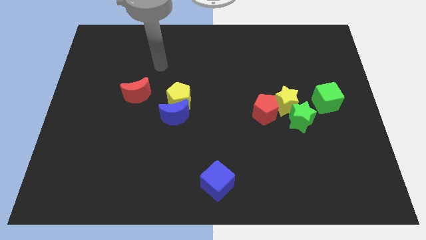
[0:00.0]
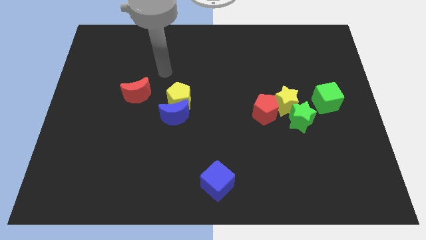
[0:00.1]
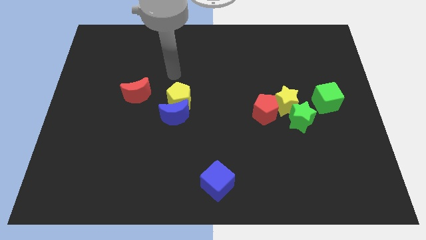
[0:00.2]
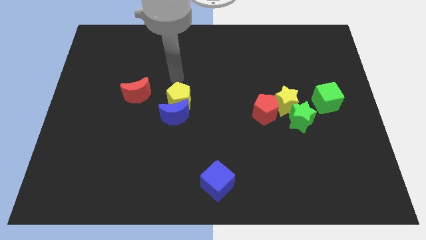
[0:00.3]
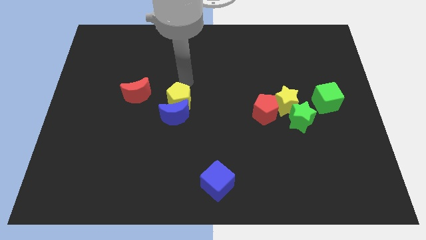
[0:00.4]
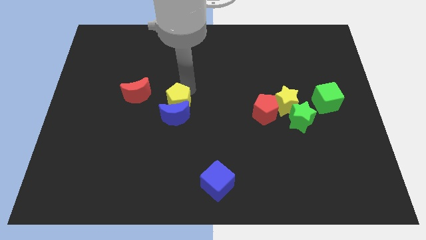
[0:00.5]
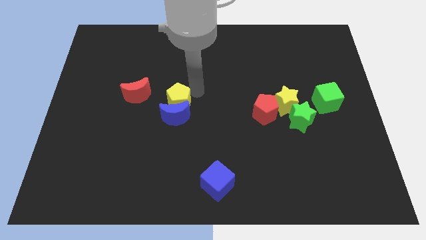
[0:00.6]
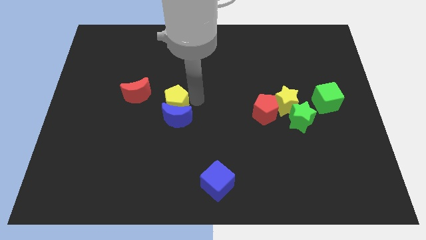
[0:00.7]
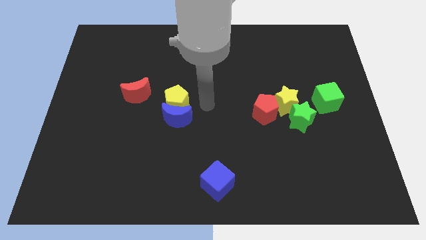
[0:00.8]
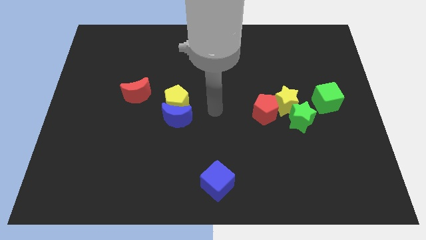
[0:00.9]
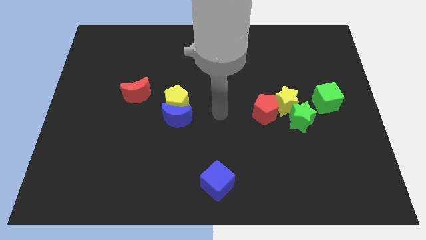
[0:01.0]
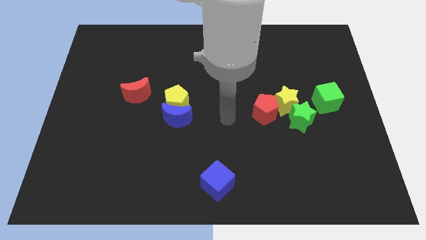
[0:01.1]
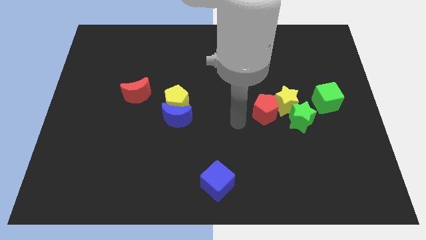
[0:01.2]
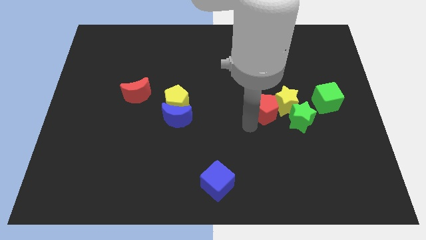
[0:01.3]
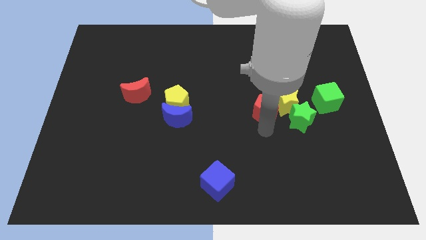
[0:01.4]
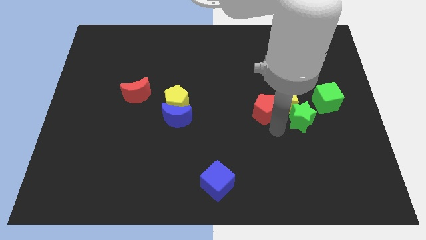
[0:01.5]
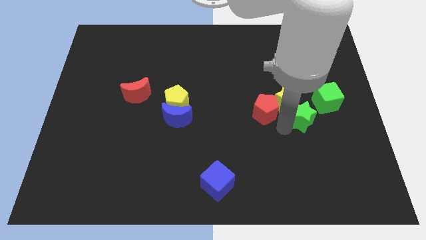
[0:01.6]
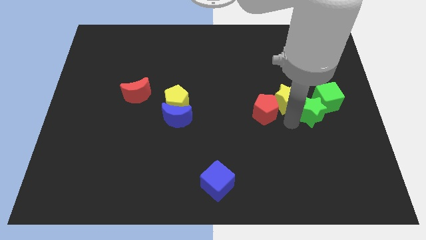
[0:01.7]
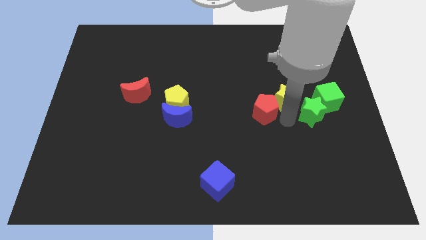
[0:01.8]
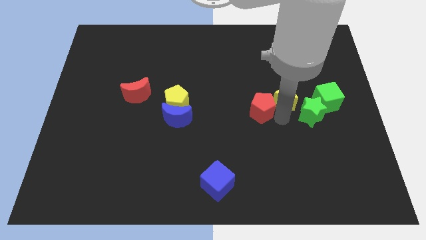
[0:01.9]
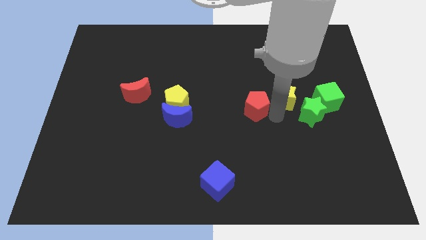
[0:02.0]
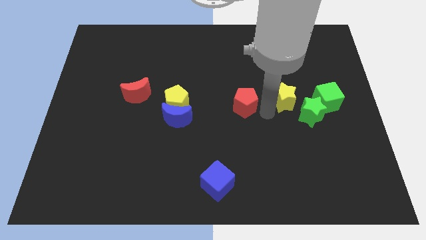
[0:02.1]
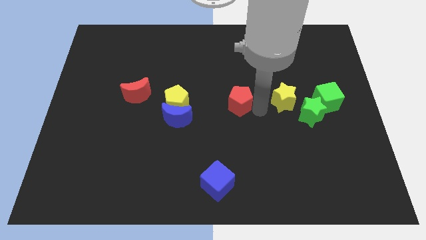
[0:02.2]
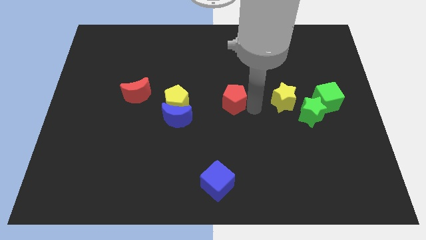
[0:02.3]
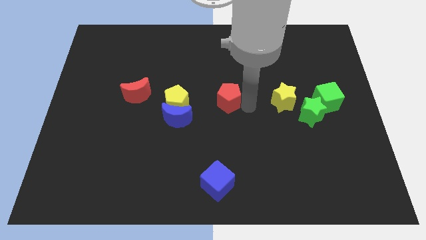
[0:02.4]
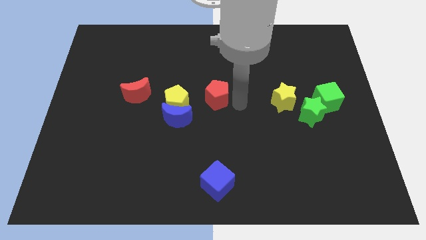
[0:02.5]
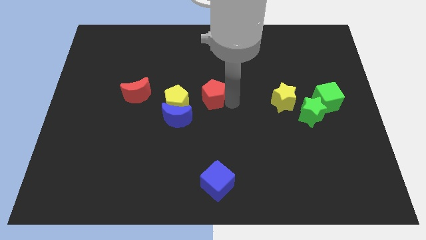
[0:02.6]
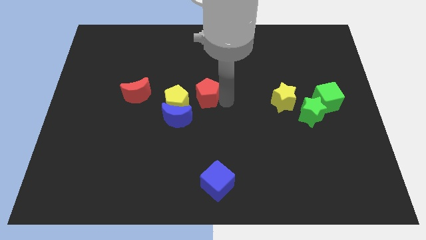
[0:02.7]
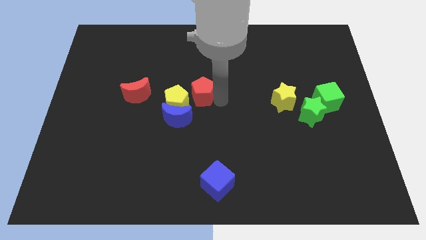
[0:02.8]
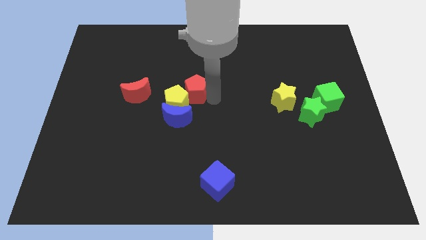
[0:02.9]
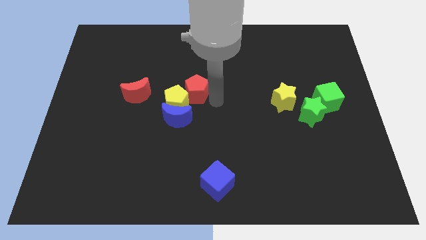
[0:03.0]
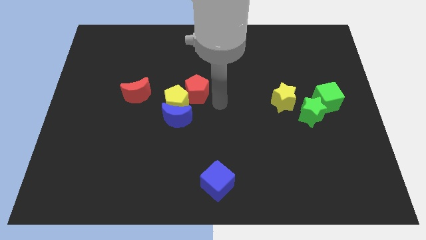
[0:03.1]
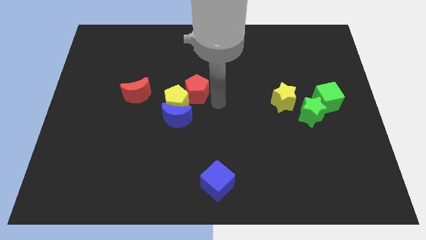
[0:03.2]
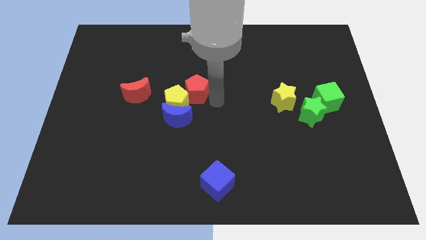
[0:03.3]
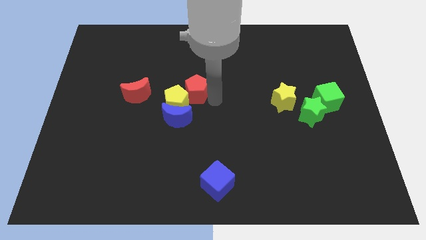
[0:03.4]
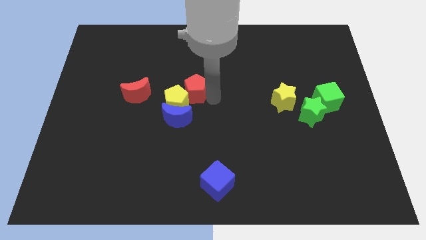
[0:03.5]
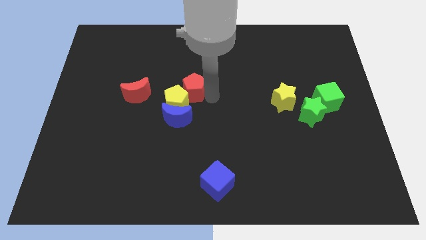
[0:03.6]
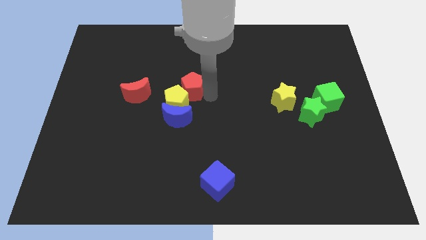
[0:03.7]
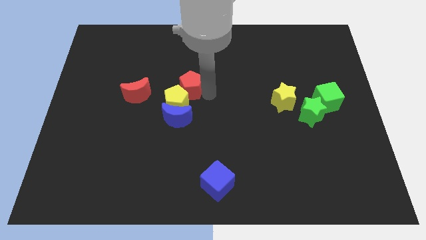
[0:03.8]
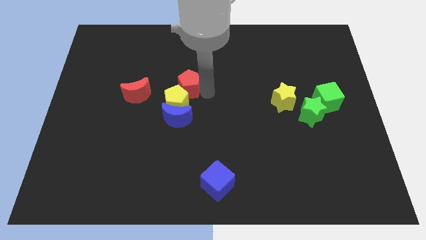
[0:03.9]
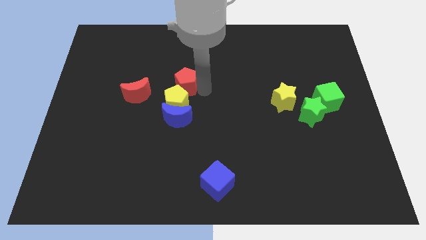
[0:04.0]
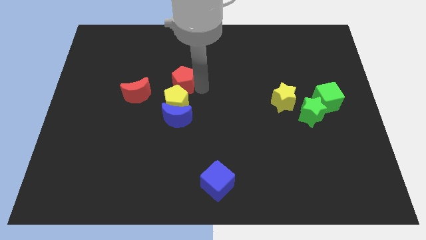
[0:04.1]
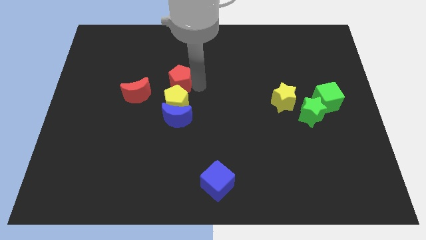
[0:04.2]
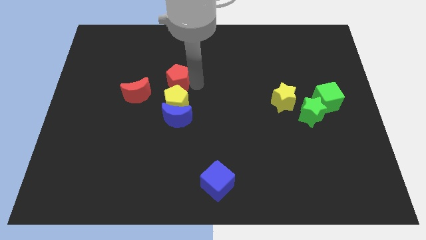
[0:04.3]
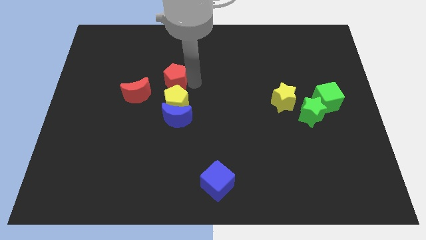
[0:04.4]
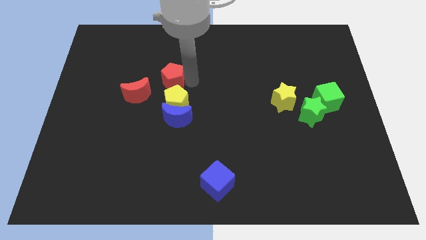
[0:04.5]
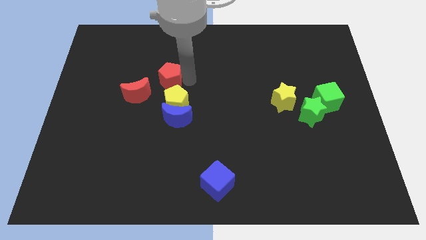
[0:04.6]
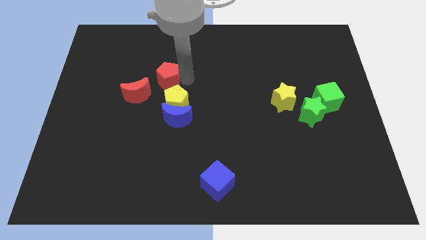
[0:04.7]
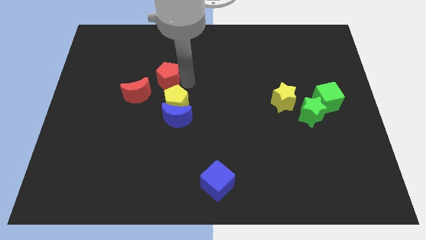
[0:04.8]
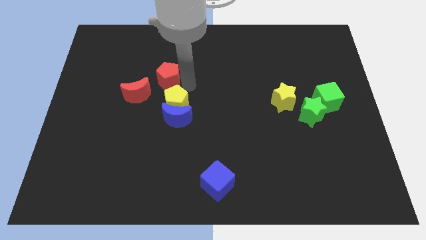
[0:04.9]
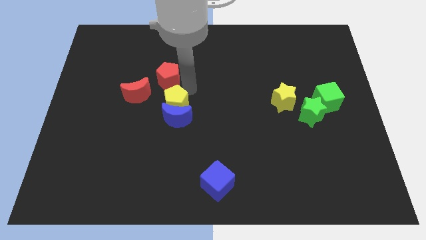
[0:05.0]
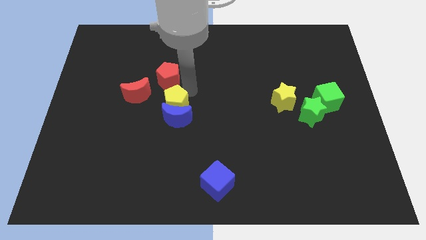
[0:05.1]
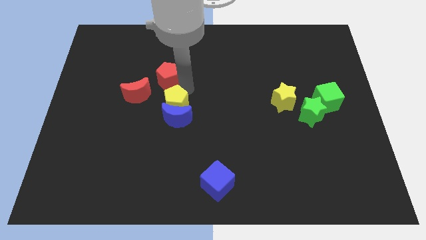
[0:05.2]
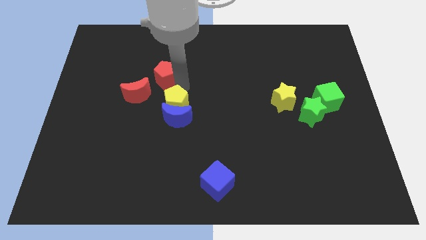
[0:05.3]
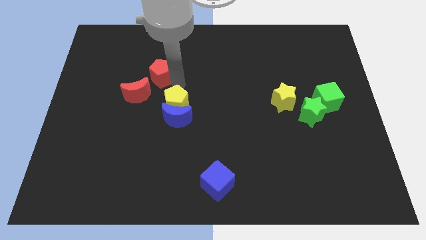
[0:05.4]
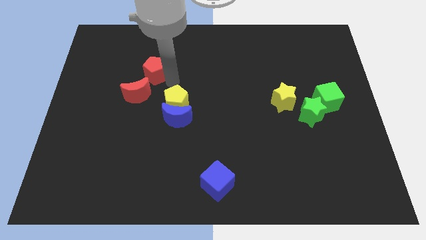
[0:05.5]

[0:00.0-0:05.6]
slide the red pentagon to the top side of the red moon

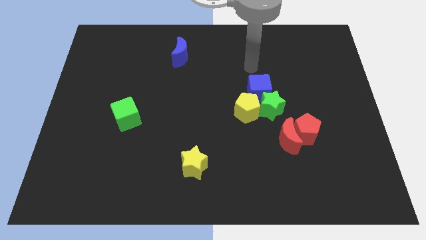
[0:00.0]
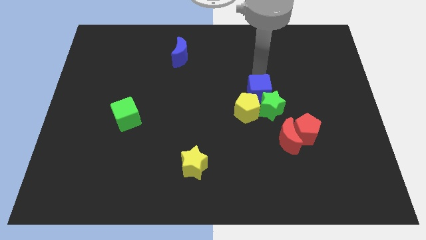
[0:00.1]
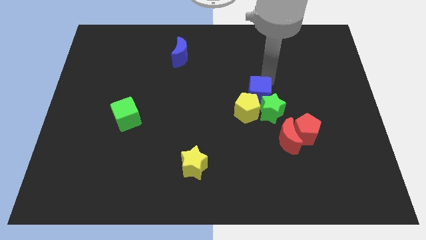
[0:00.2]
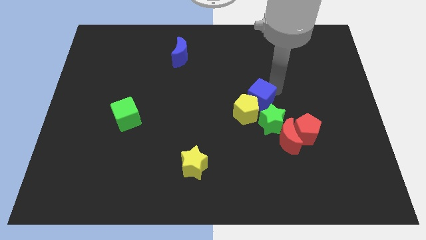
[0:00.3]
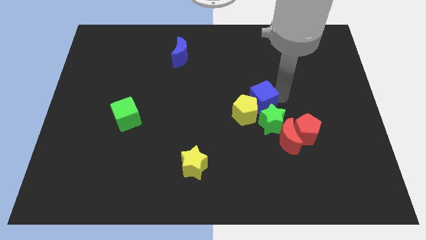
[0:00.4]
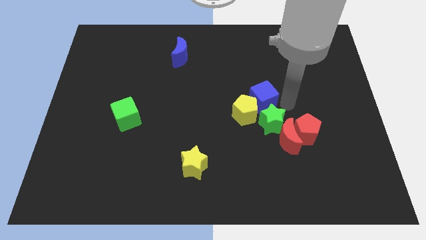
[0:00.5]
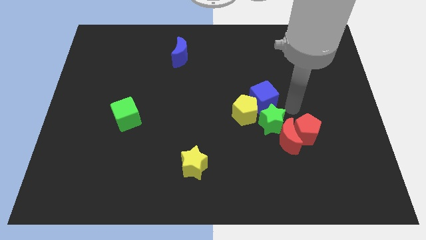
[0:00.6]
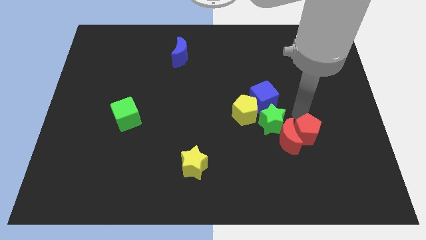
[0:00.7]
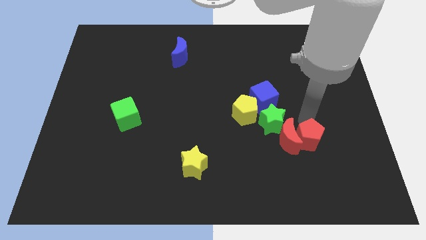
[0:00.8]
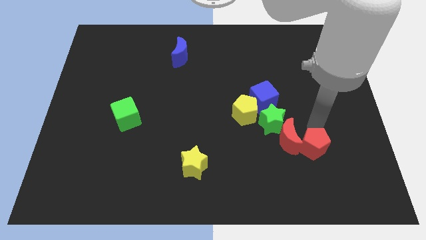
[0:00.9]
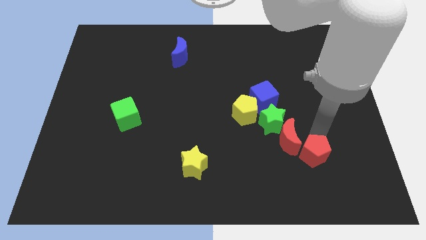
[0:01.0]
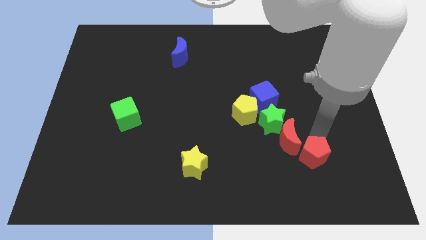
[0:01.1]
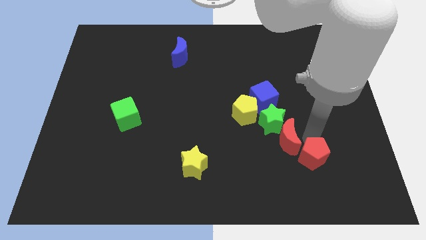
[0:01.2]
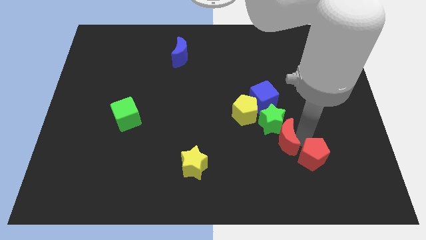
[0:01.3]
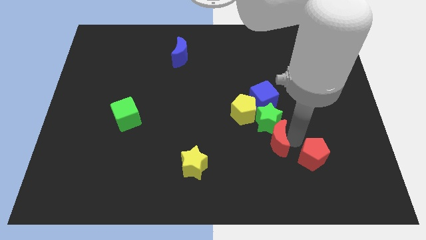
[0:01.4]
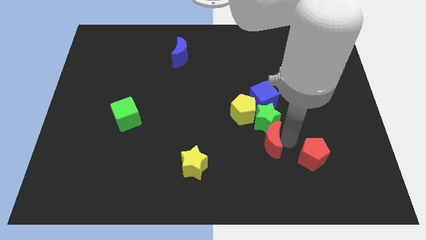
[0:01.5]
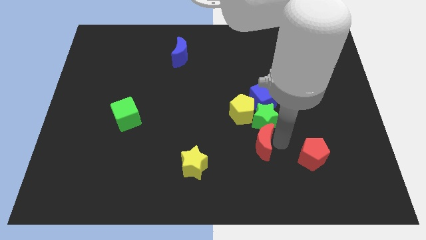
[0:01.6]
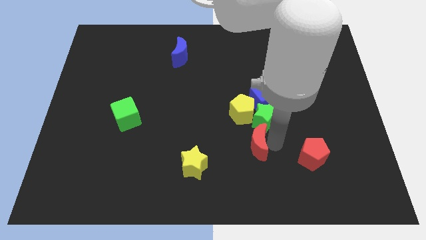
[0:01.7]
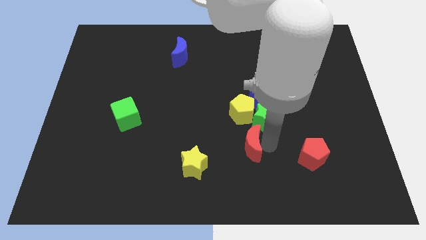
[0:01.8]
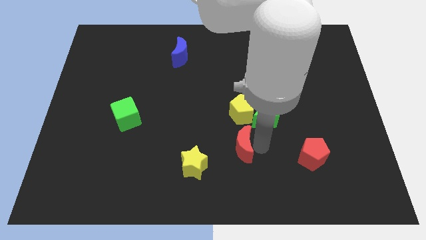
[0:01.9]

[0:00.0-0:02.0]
move the red moon to the top right of the yellow star
